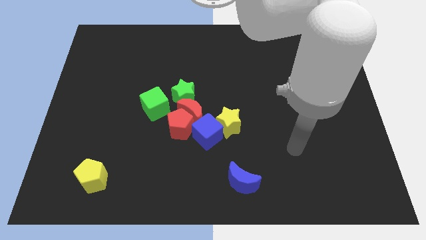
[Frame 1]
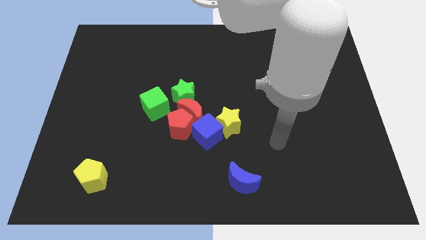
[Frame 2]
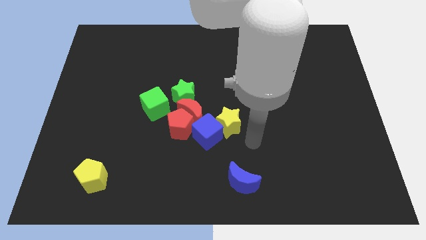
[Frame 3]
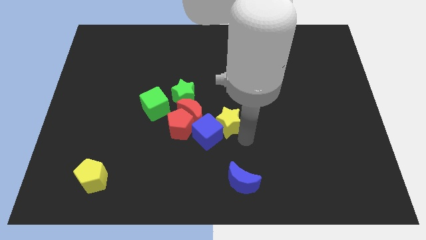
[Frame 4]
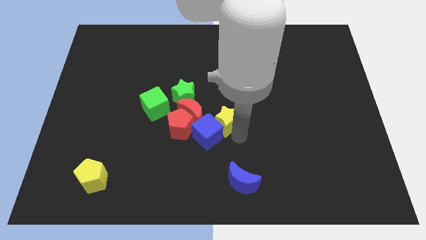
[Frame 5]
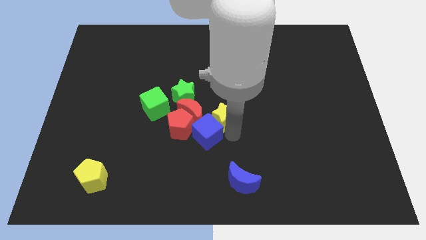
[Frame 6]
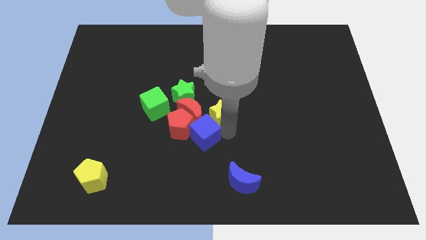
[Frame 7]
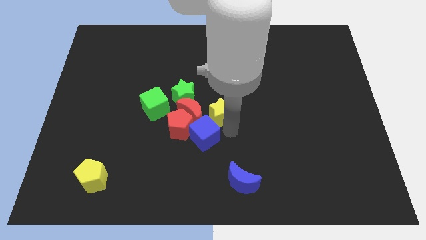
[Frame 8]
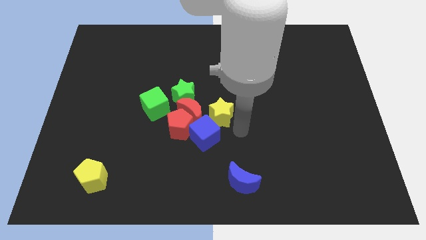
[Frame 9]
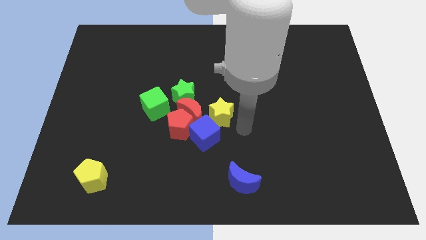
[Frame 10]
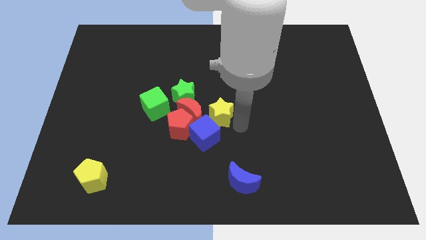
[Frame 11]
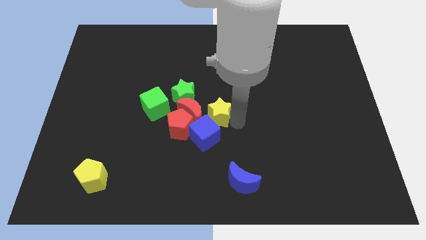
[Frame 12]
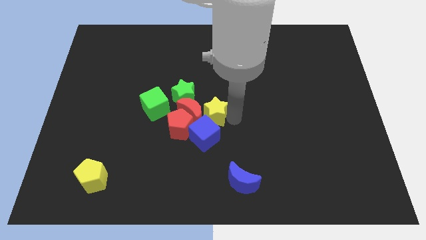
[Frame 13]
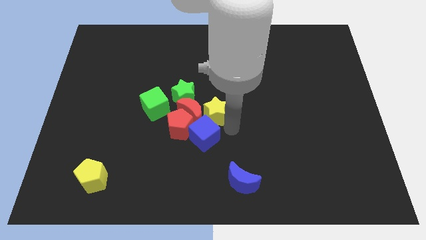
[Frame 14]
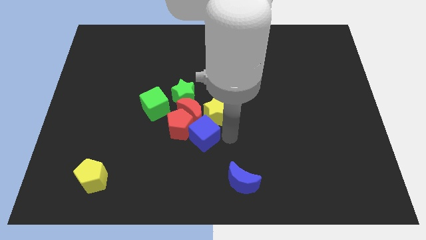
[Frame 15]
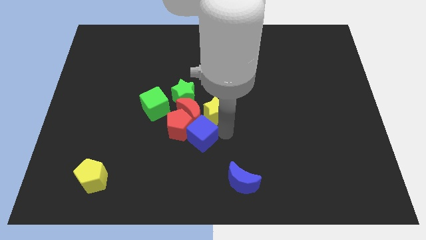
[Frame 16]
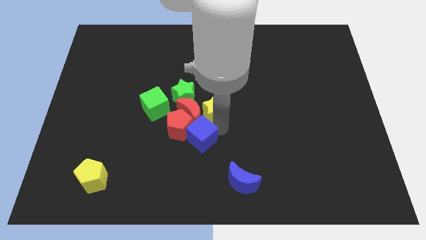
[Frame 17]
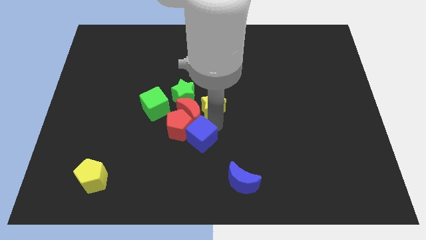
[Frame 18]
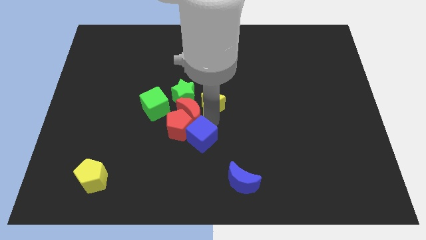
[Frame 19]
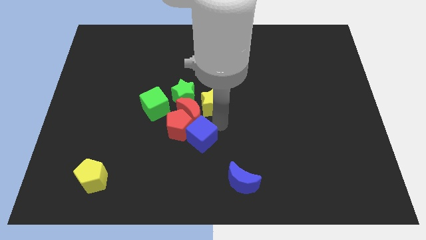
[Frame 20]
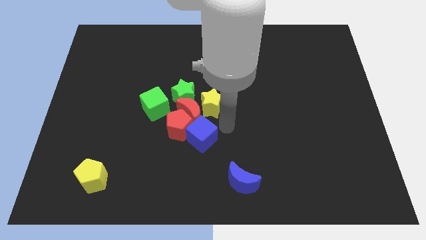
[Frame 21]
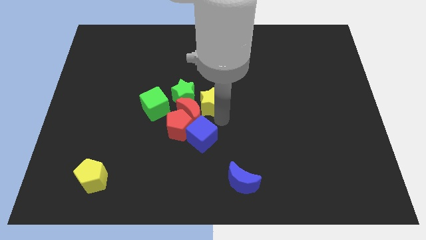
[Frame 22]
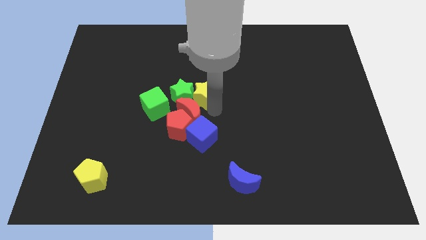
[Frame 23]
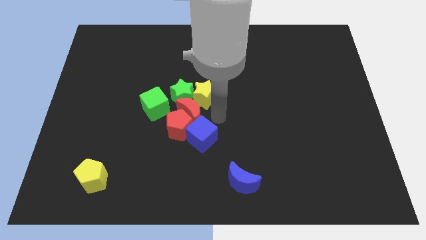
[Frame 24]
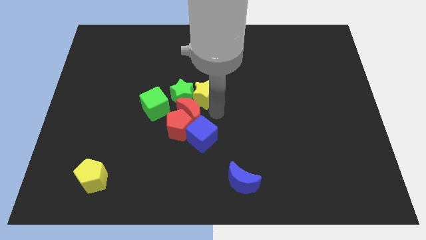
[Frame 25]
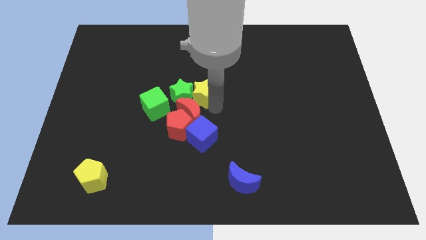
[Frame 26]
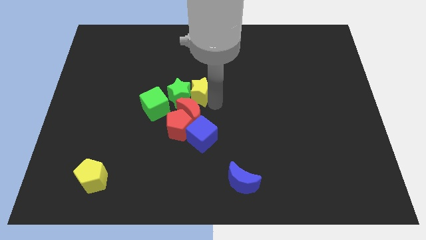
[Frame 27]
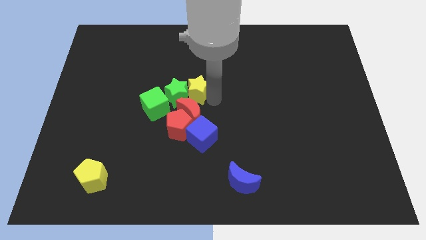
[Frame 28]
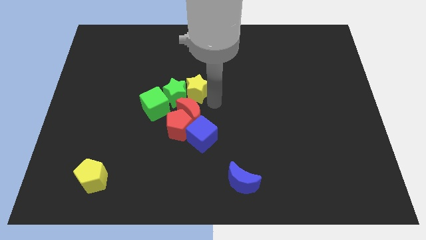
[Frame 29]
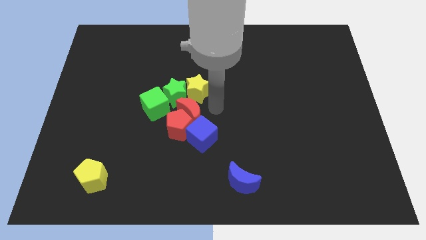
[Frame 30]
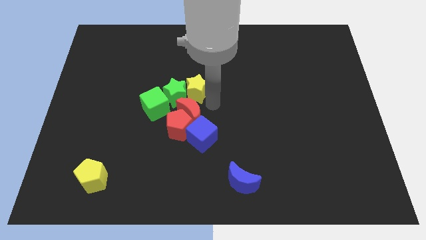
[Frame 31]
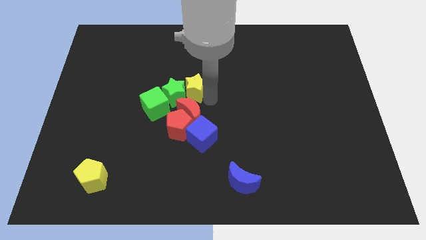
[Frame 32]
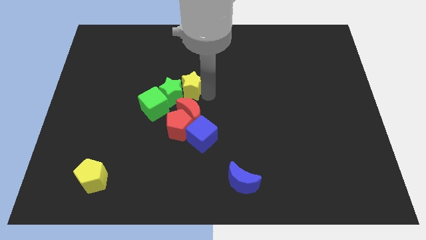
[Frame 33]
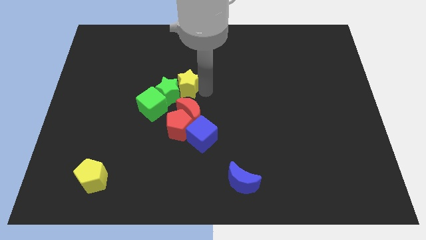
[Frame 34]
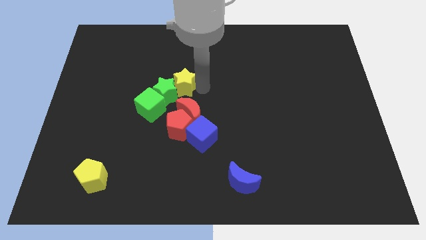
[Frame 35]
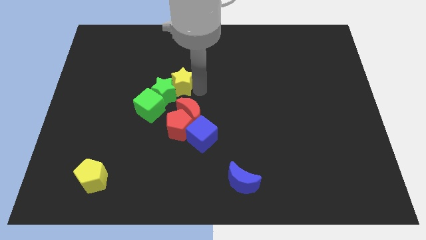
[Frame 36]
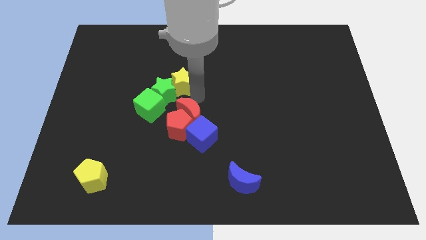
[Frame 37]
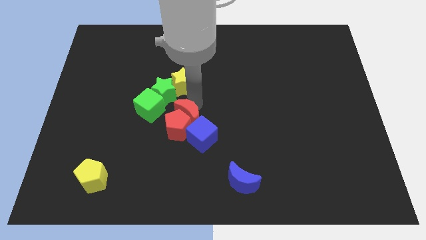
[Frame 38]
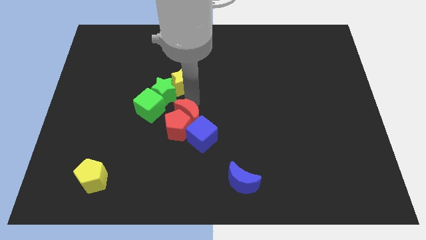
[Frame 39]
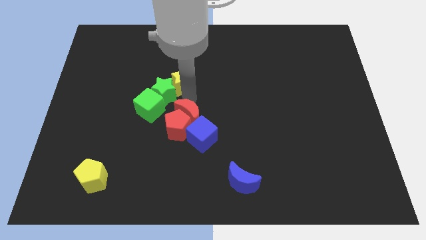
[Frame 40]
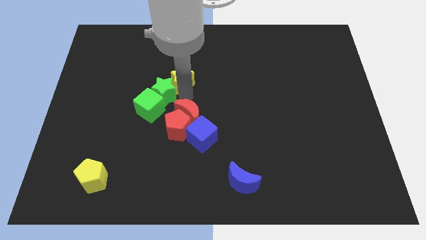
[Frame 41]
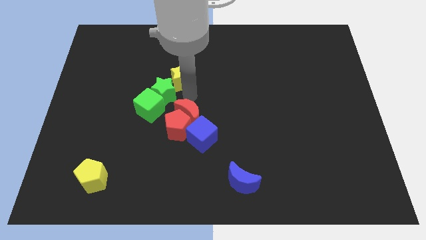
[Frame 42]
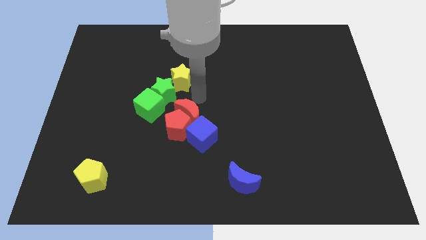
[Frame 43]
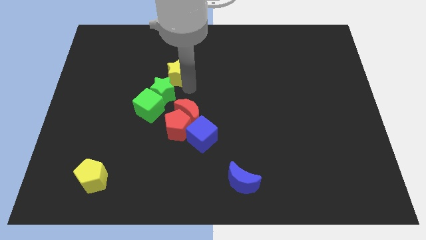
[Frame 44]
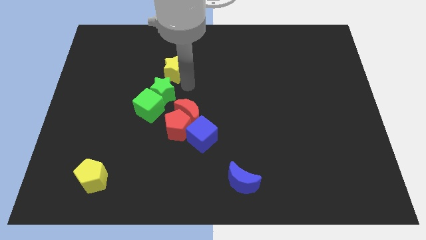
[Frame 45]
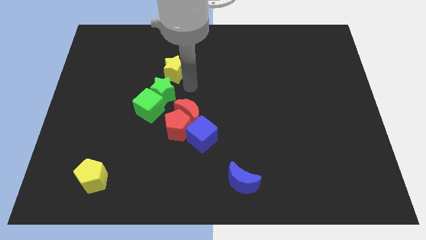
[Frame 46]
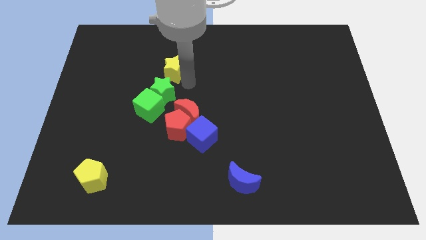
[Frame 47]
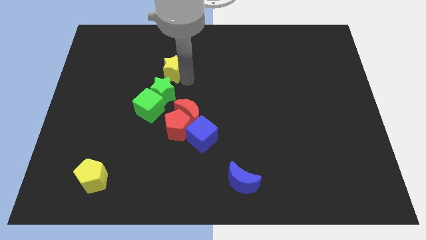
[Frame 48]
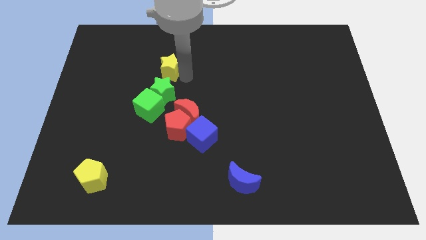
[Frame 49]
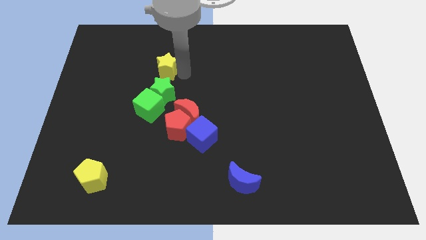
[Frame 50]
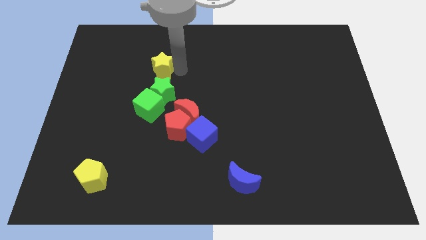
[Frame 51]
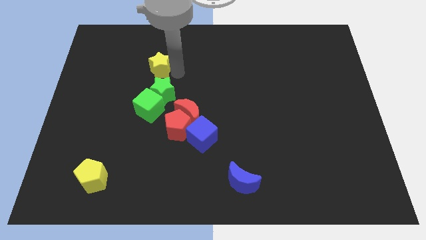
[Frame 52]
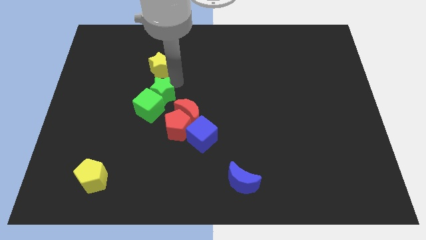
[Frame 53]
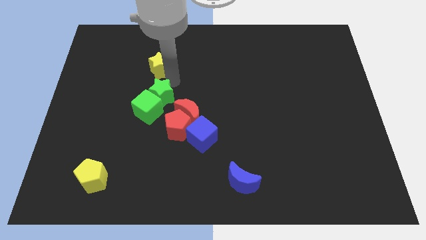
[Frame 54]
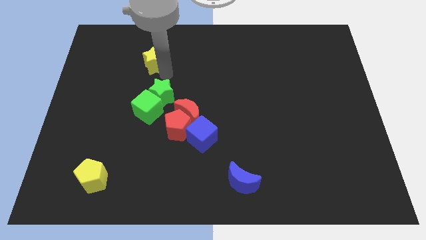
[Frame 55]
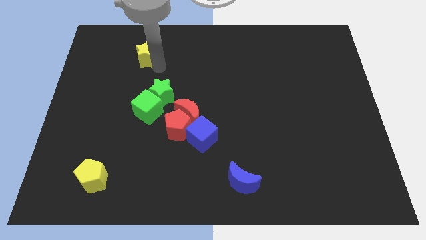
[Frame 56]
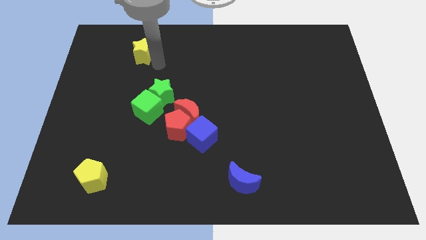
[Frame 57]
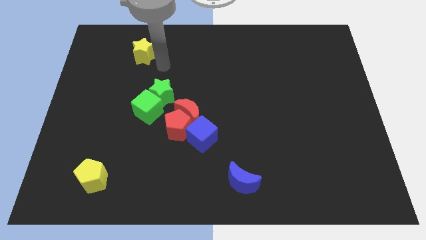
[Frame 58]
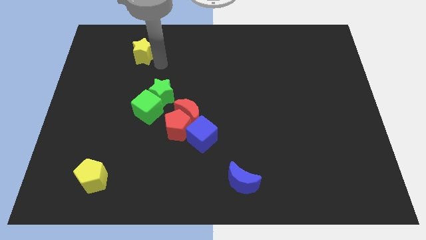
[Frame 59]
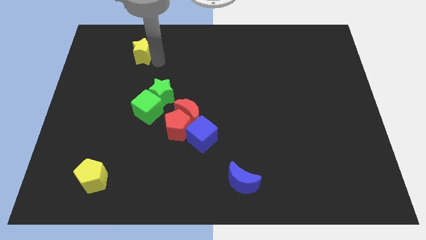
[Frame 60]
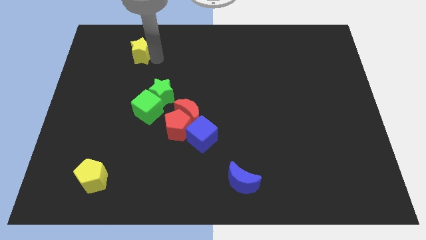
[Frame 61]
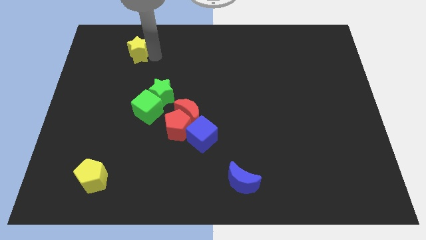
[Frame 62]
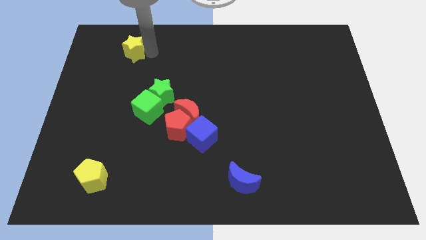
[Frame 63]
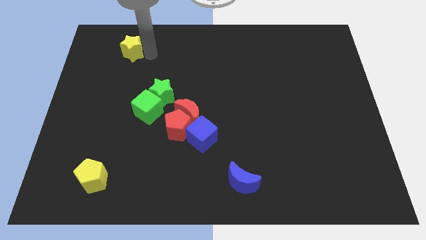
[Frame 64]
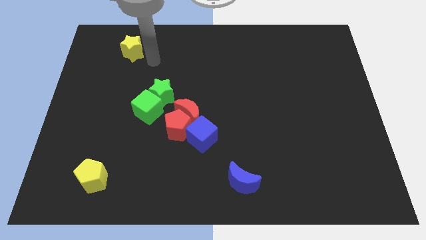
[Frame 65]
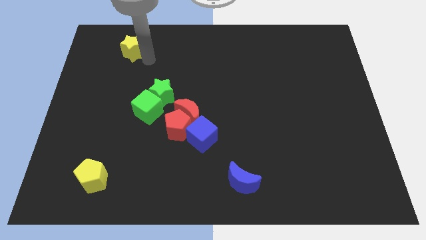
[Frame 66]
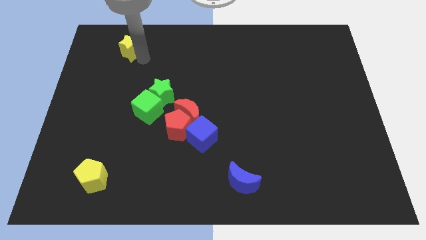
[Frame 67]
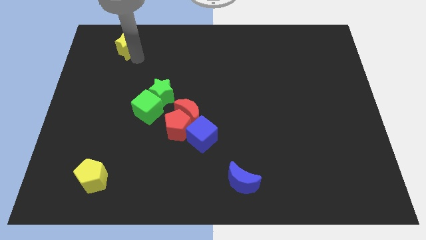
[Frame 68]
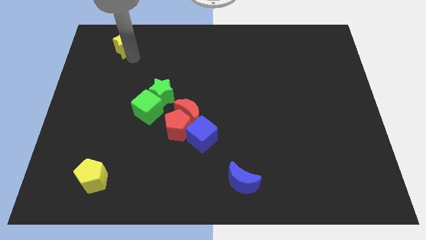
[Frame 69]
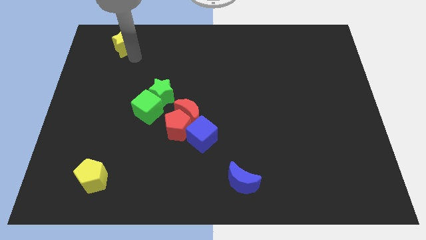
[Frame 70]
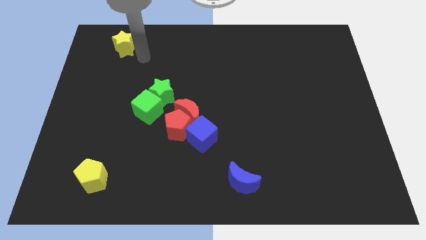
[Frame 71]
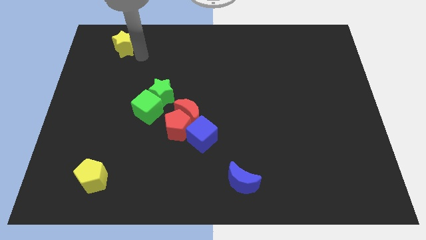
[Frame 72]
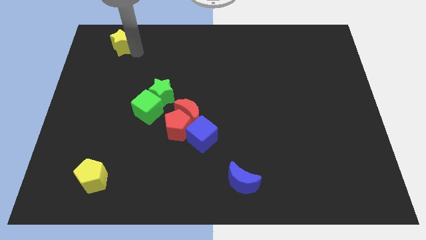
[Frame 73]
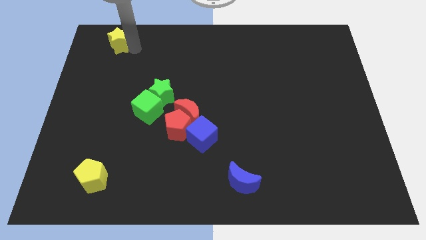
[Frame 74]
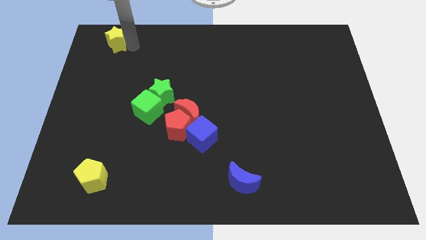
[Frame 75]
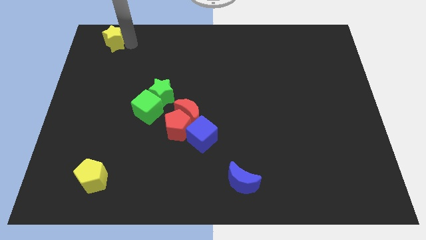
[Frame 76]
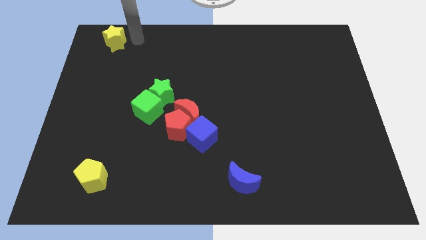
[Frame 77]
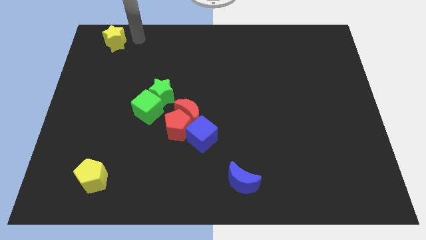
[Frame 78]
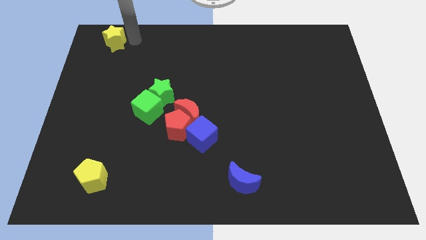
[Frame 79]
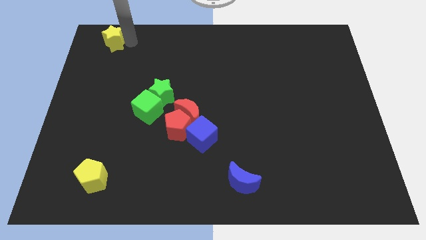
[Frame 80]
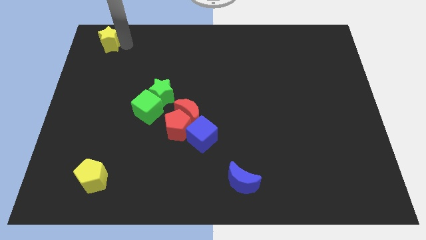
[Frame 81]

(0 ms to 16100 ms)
slide the yellow star to the upper left corner
